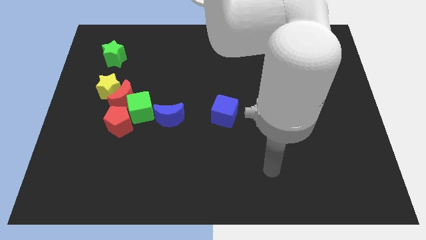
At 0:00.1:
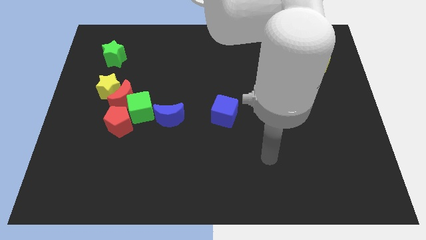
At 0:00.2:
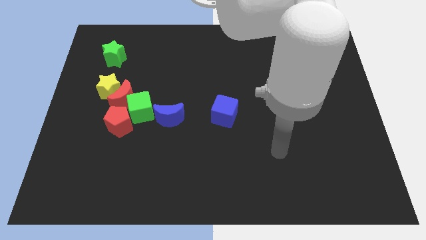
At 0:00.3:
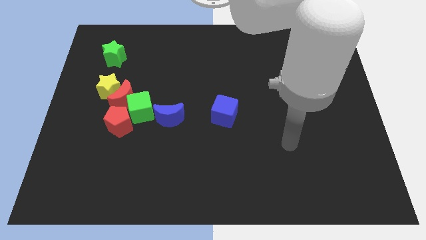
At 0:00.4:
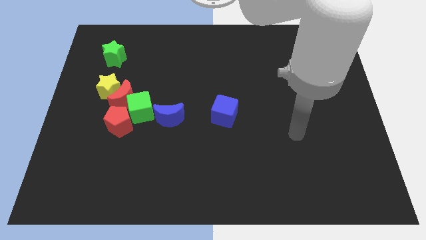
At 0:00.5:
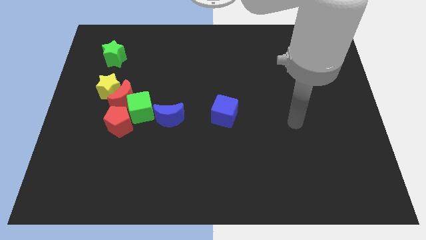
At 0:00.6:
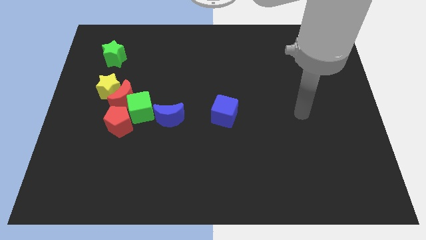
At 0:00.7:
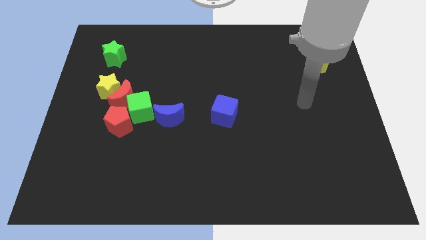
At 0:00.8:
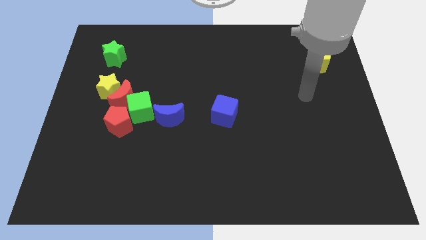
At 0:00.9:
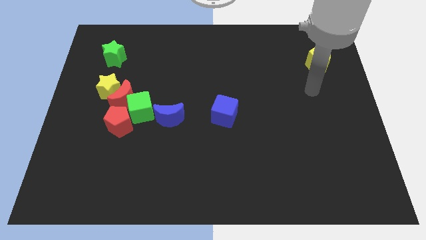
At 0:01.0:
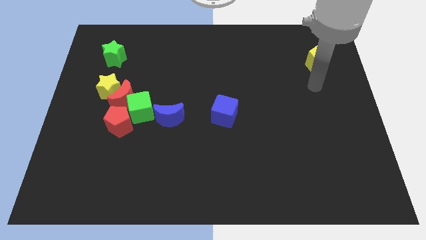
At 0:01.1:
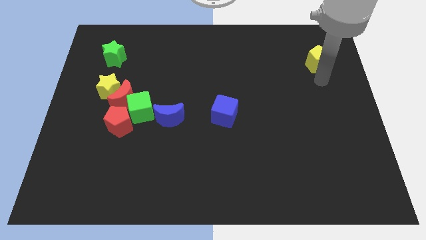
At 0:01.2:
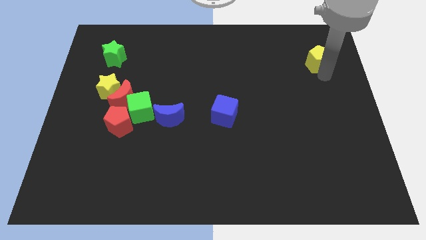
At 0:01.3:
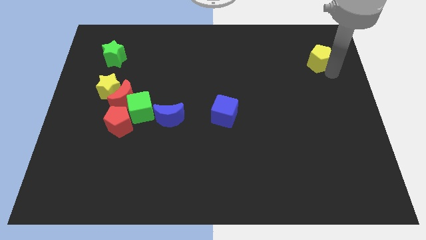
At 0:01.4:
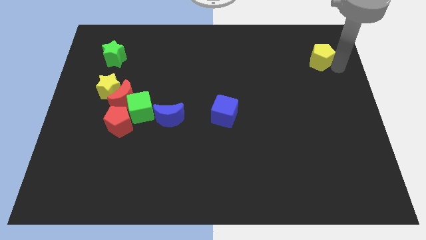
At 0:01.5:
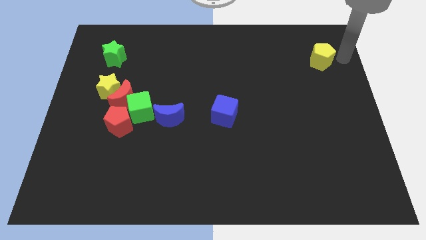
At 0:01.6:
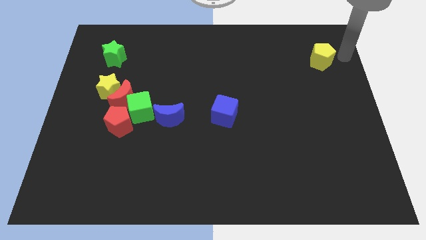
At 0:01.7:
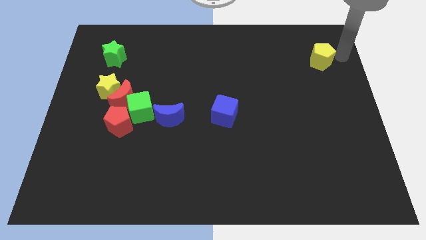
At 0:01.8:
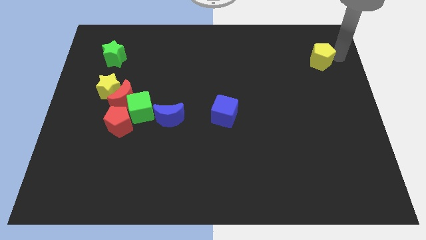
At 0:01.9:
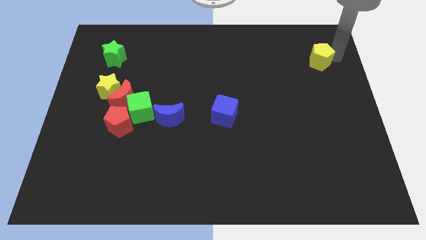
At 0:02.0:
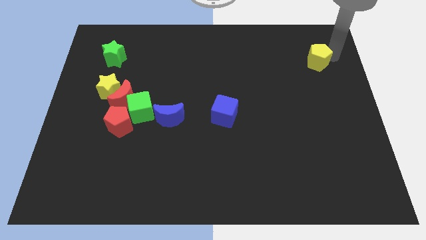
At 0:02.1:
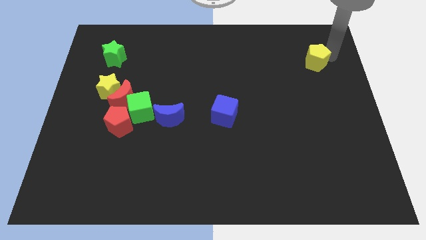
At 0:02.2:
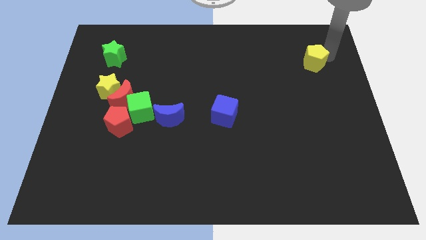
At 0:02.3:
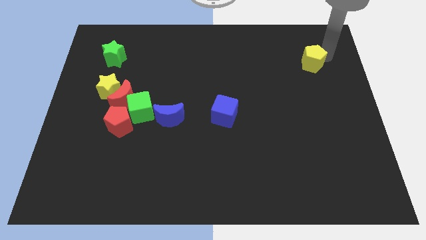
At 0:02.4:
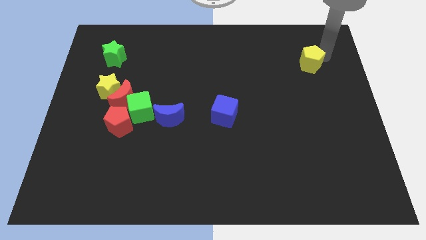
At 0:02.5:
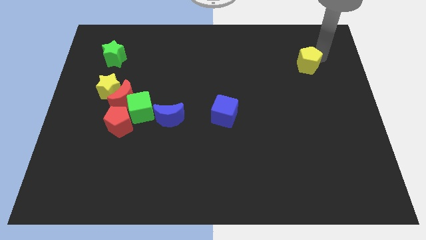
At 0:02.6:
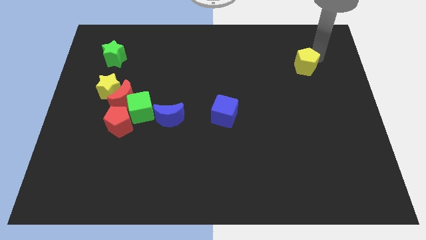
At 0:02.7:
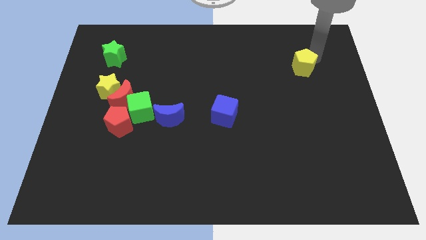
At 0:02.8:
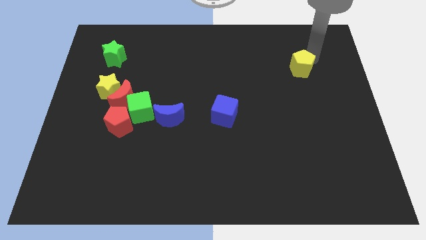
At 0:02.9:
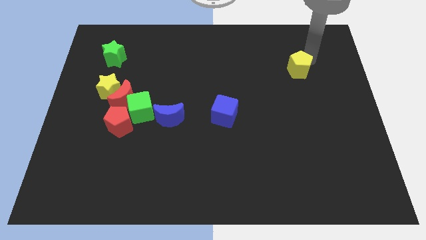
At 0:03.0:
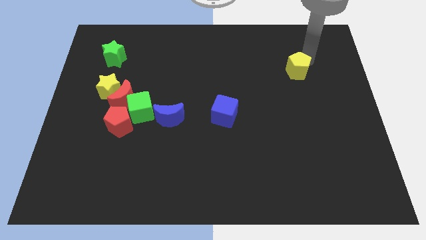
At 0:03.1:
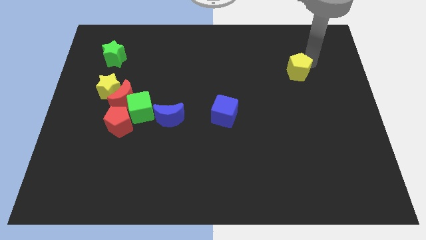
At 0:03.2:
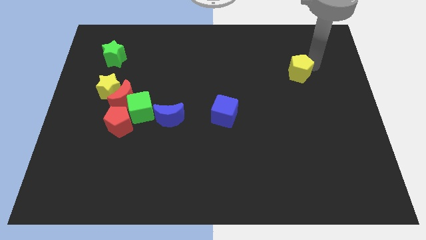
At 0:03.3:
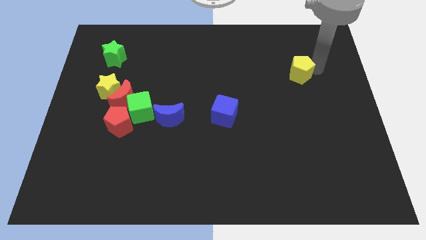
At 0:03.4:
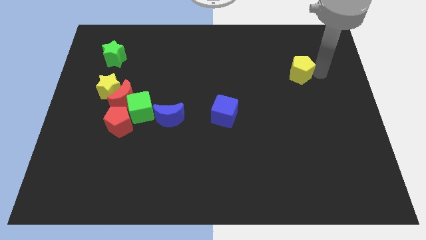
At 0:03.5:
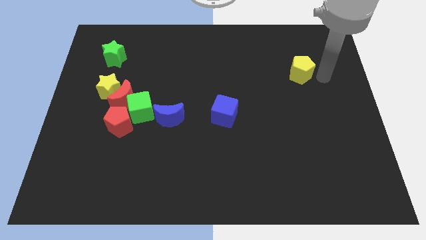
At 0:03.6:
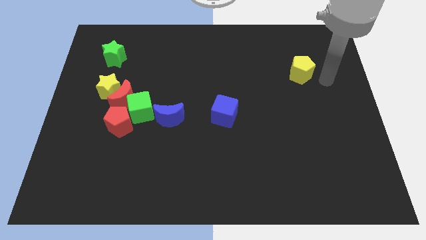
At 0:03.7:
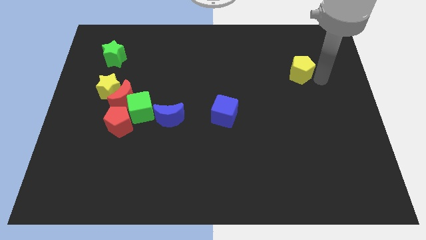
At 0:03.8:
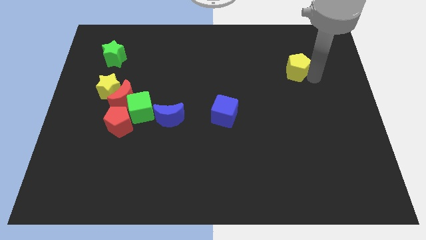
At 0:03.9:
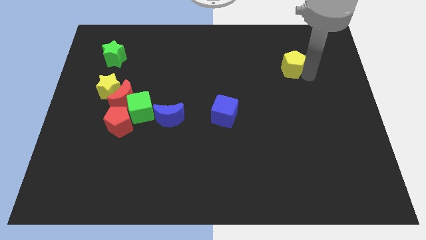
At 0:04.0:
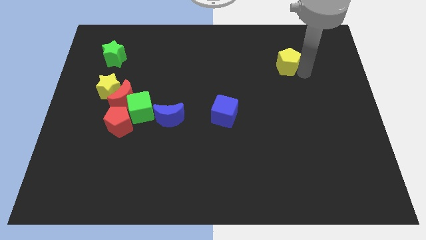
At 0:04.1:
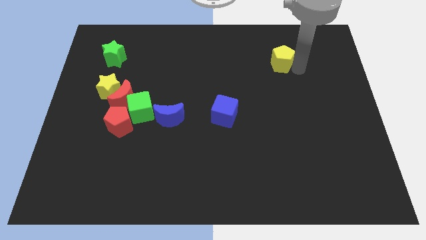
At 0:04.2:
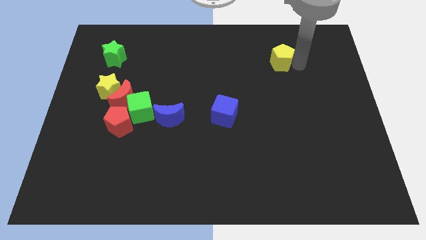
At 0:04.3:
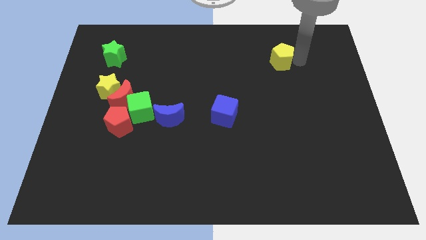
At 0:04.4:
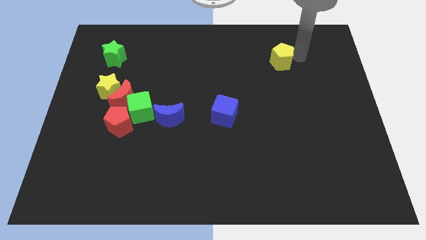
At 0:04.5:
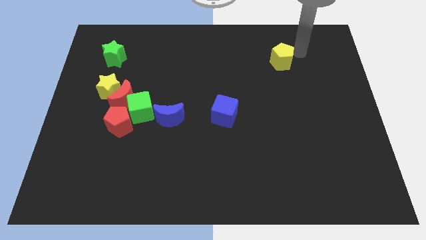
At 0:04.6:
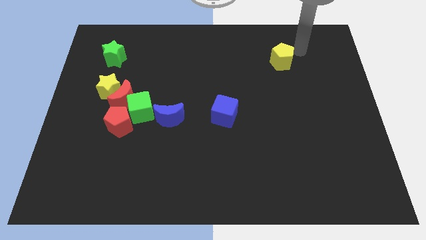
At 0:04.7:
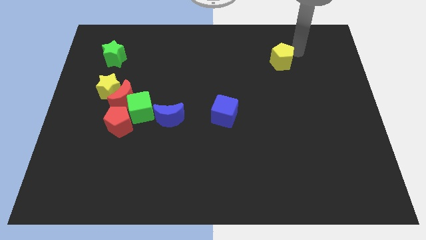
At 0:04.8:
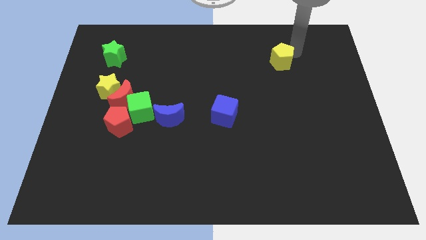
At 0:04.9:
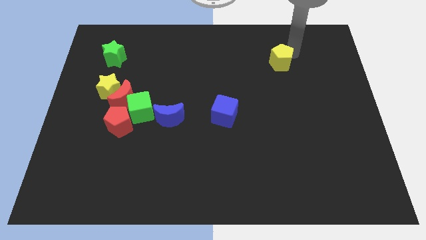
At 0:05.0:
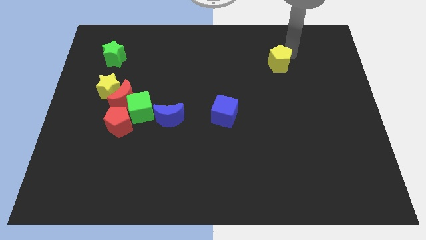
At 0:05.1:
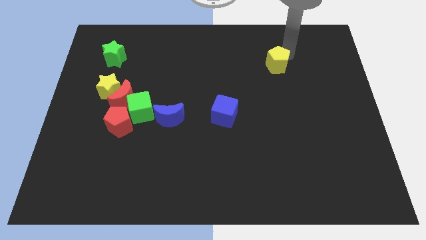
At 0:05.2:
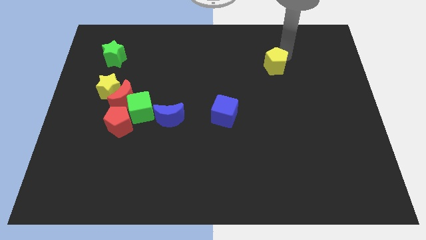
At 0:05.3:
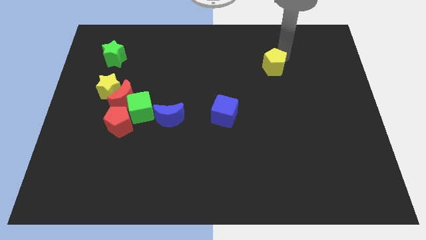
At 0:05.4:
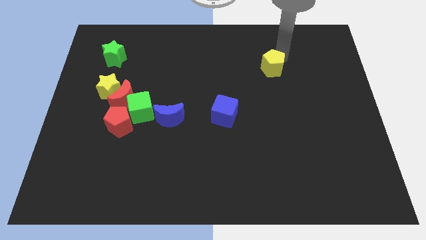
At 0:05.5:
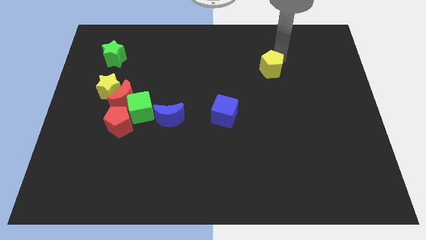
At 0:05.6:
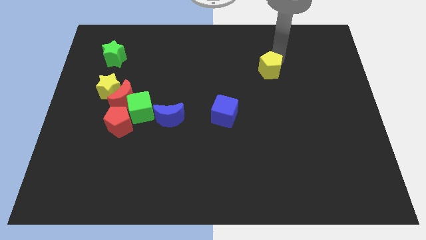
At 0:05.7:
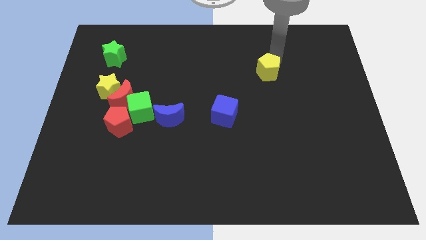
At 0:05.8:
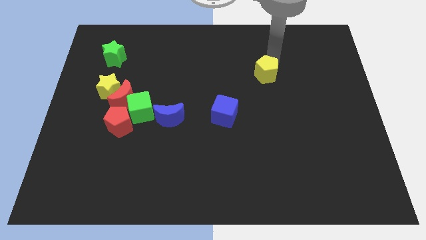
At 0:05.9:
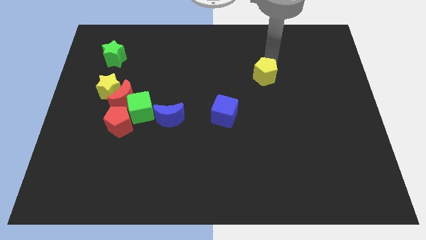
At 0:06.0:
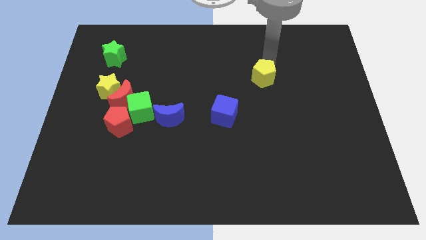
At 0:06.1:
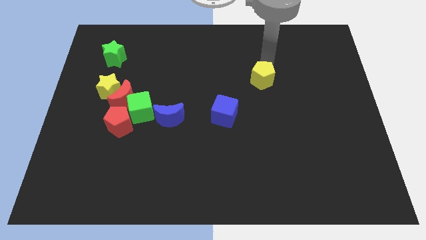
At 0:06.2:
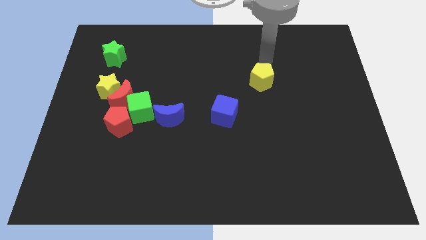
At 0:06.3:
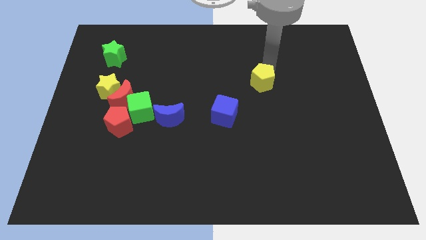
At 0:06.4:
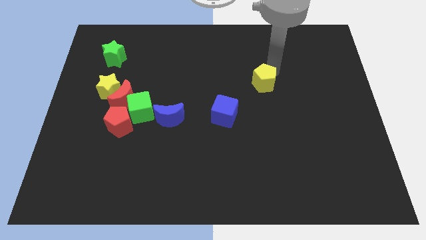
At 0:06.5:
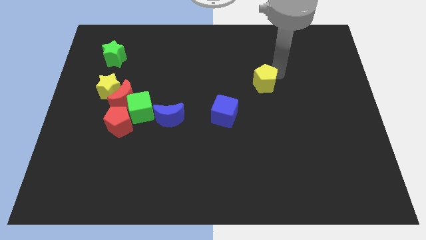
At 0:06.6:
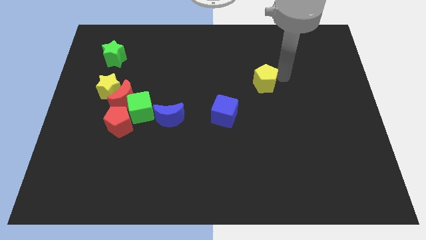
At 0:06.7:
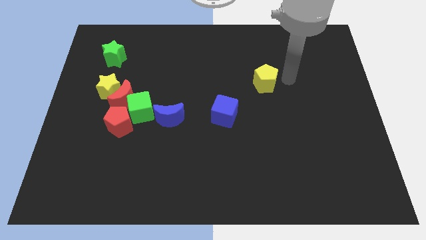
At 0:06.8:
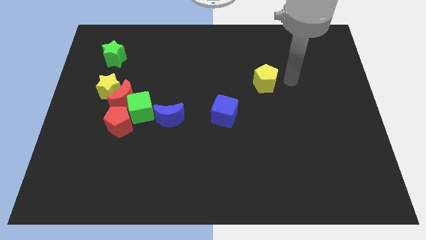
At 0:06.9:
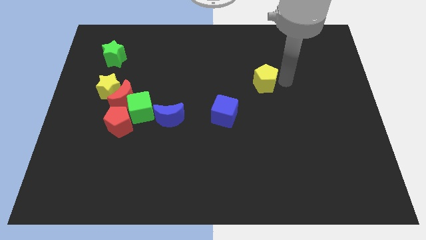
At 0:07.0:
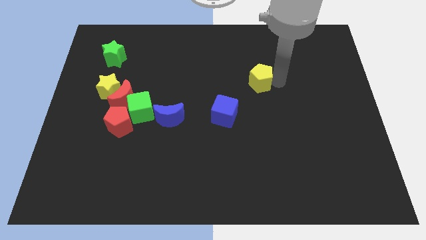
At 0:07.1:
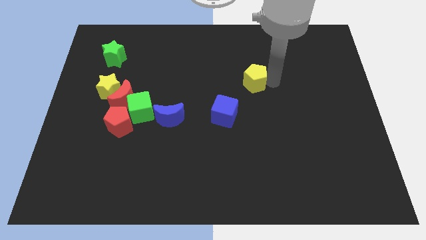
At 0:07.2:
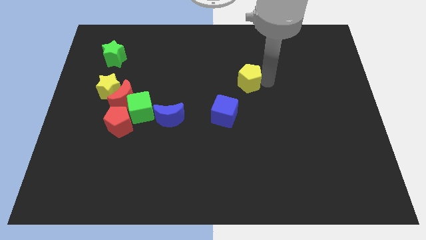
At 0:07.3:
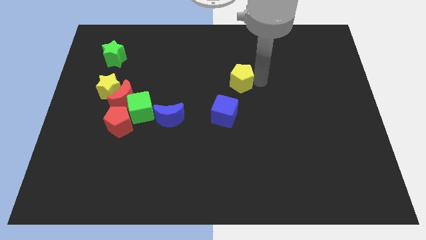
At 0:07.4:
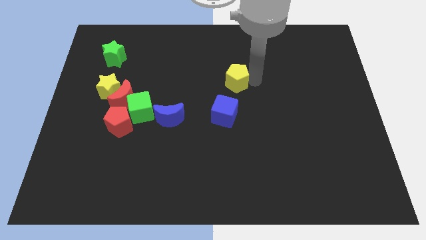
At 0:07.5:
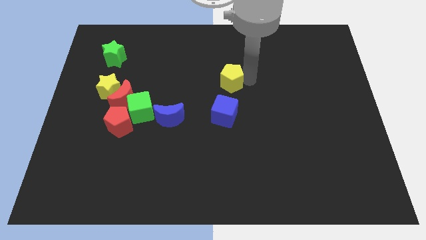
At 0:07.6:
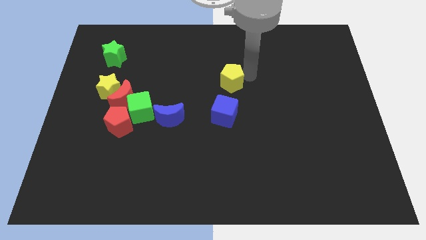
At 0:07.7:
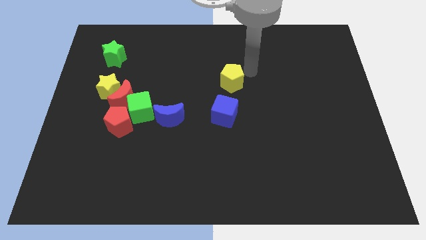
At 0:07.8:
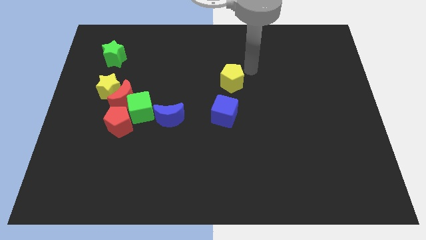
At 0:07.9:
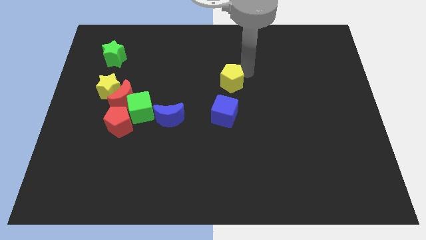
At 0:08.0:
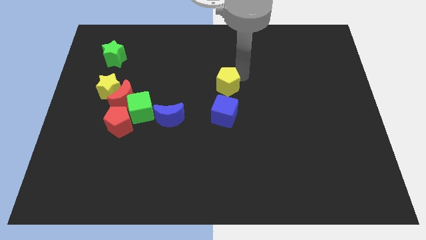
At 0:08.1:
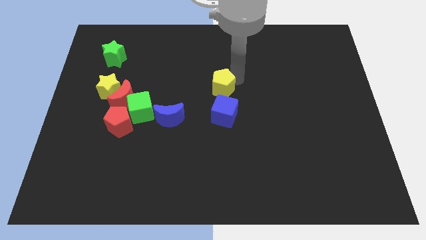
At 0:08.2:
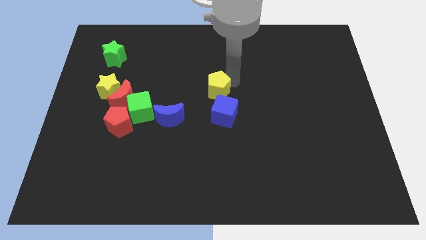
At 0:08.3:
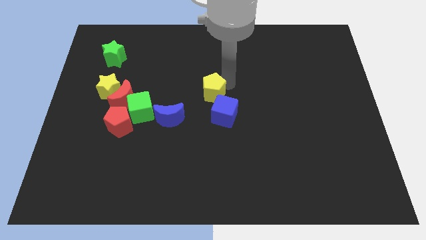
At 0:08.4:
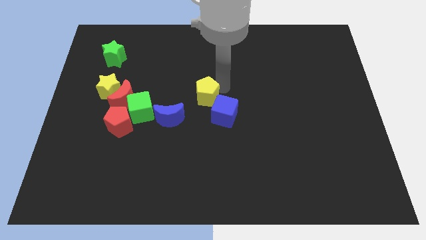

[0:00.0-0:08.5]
push the yellow pentagon to the top right of the blue moon
